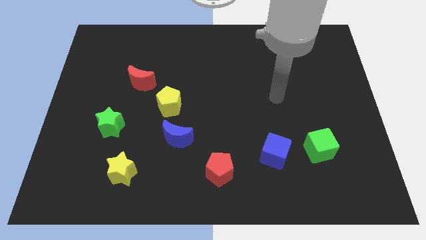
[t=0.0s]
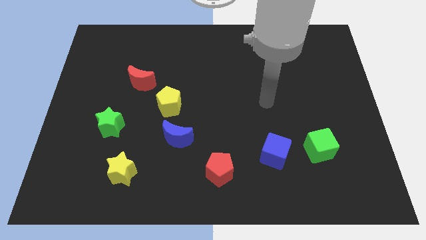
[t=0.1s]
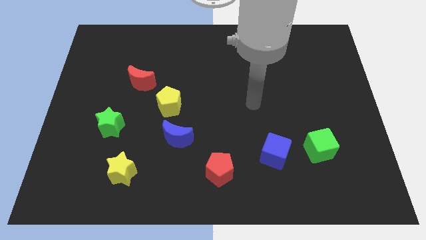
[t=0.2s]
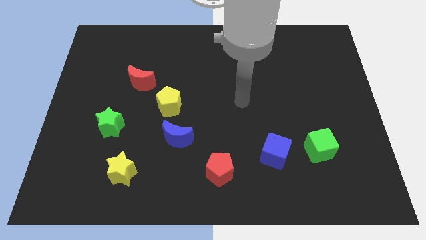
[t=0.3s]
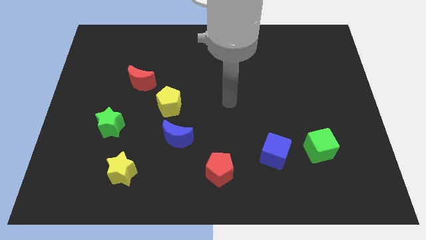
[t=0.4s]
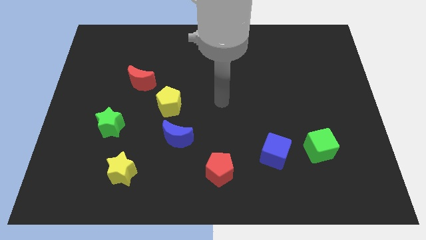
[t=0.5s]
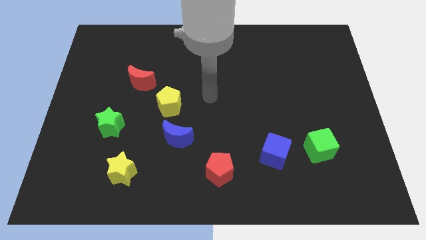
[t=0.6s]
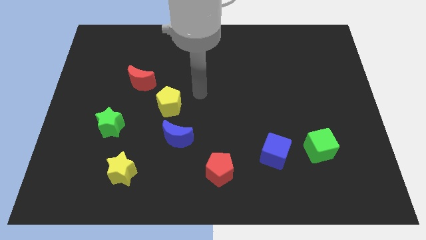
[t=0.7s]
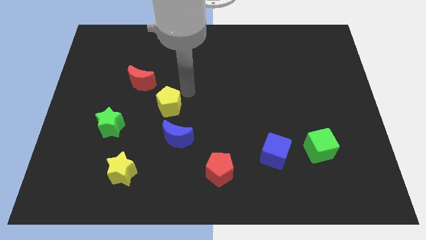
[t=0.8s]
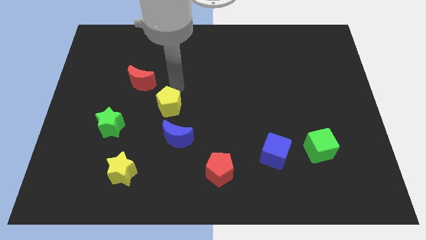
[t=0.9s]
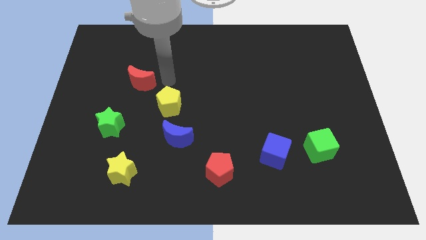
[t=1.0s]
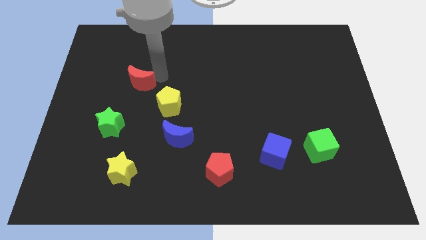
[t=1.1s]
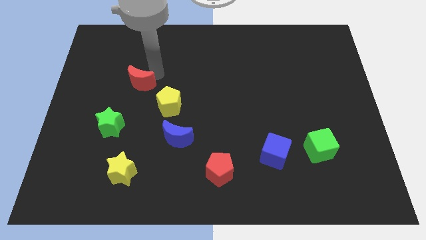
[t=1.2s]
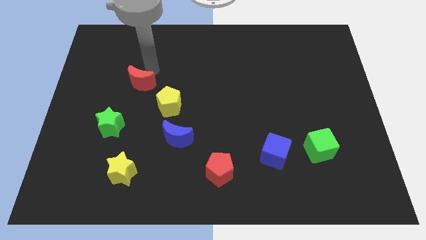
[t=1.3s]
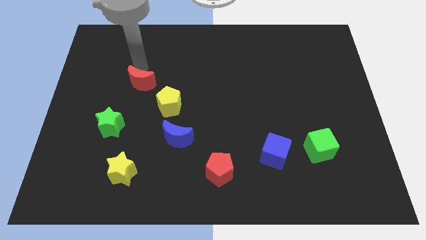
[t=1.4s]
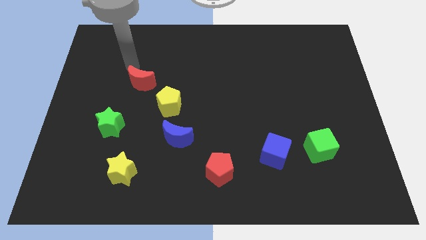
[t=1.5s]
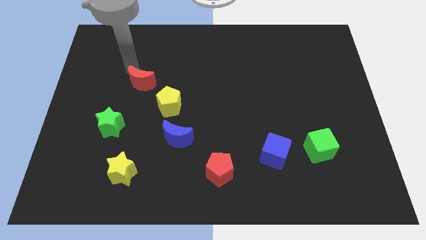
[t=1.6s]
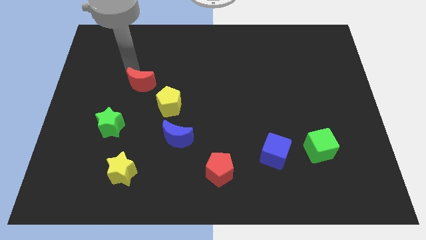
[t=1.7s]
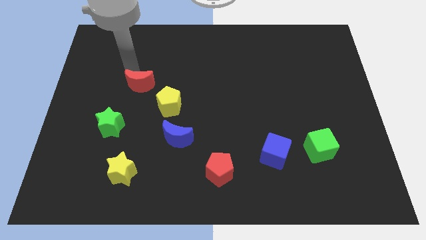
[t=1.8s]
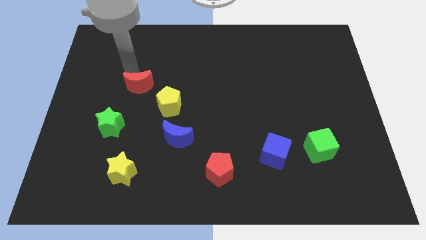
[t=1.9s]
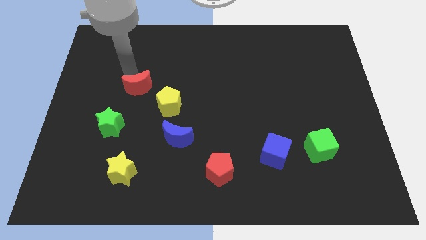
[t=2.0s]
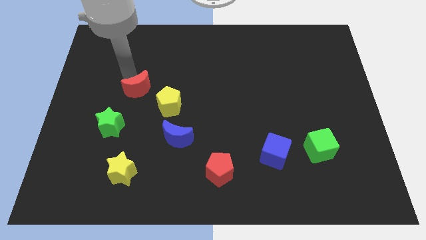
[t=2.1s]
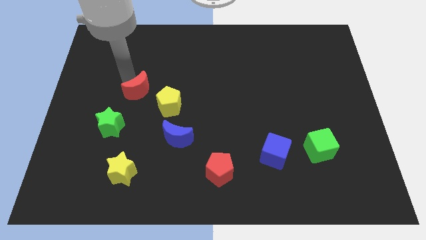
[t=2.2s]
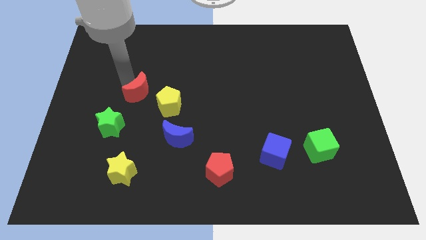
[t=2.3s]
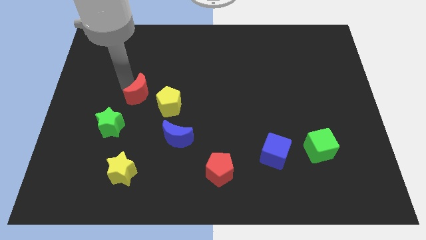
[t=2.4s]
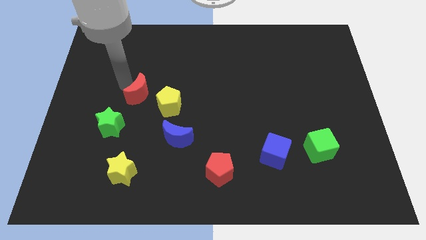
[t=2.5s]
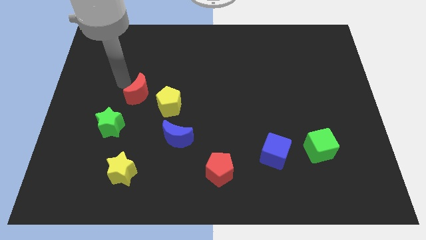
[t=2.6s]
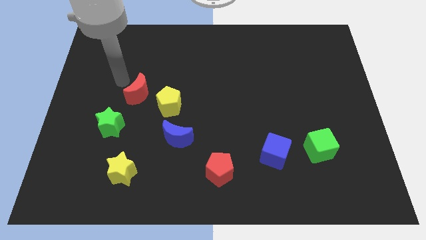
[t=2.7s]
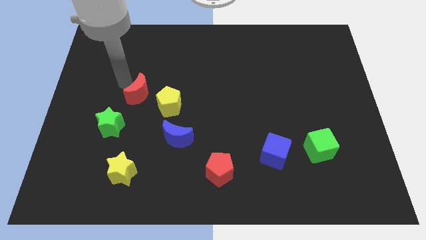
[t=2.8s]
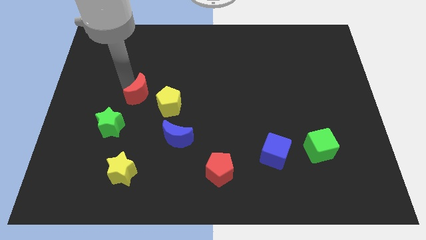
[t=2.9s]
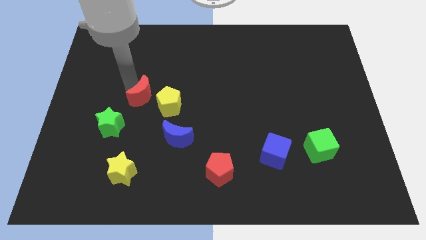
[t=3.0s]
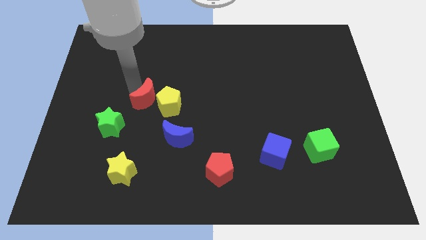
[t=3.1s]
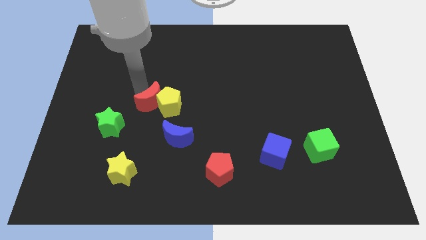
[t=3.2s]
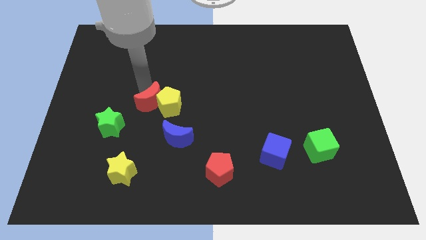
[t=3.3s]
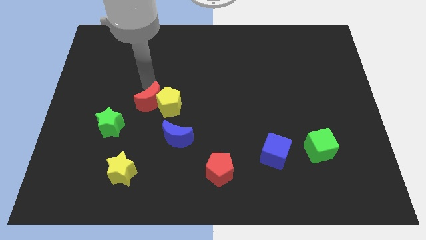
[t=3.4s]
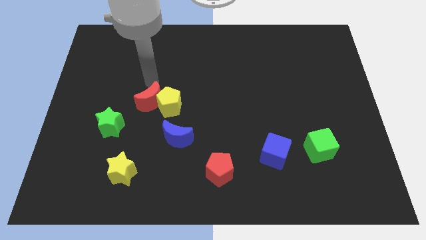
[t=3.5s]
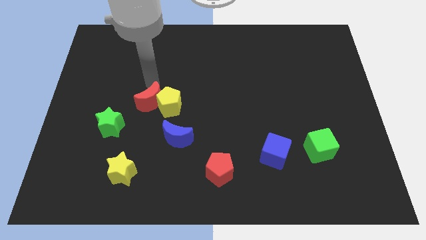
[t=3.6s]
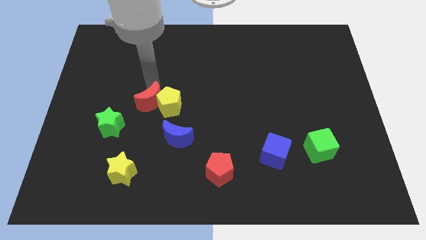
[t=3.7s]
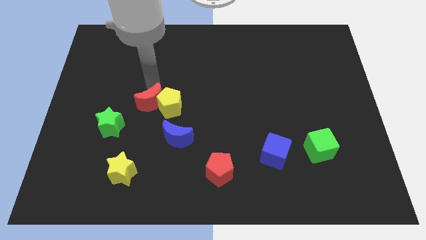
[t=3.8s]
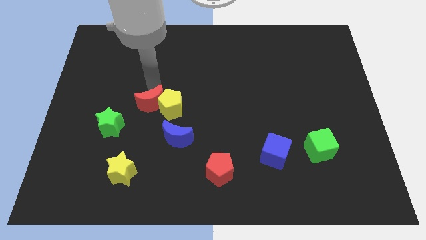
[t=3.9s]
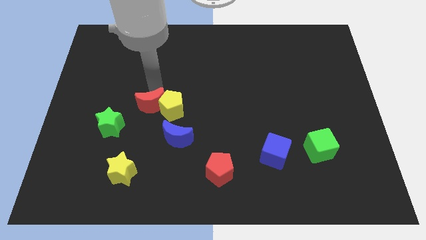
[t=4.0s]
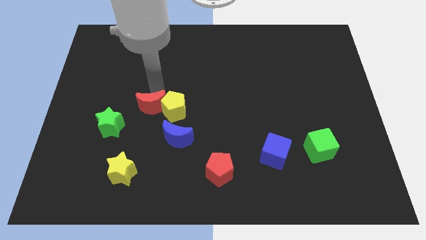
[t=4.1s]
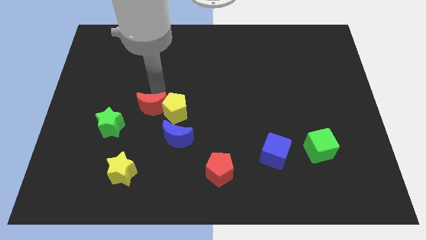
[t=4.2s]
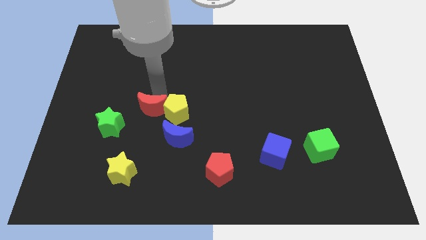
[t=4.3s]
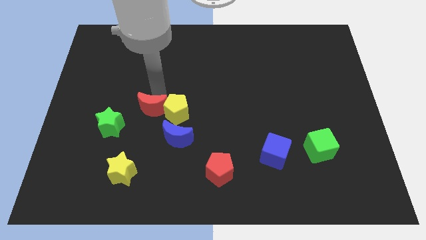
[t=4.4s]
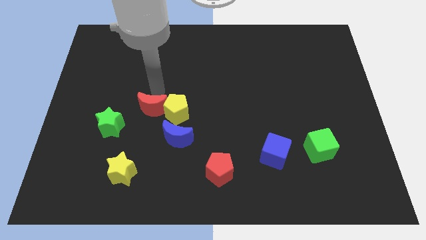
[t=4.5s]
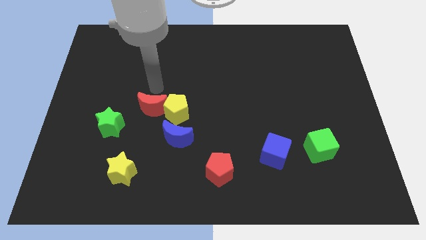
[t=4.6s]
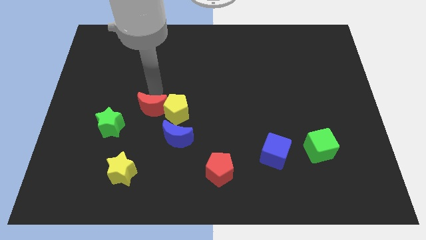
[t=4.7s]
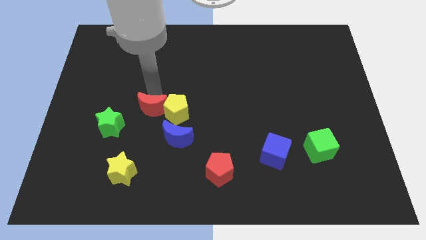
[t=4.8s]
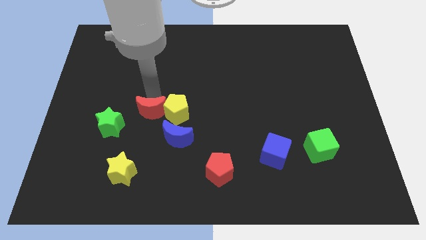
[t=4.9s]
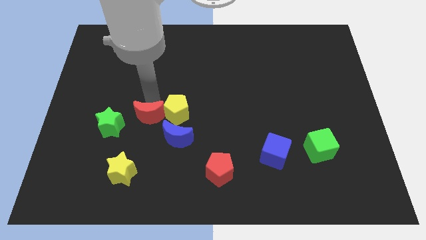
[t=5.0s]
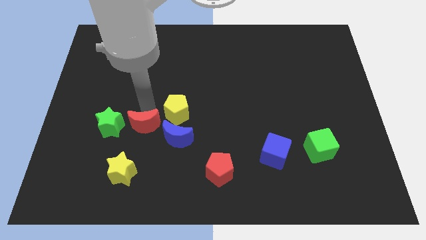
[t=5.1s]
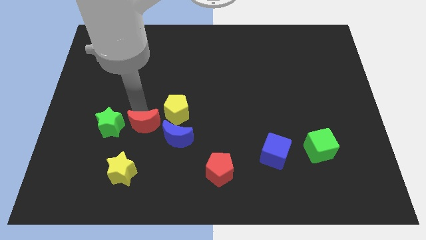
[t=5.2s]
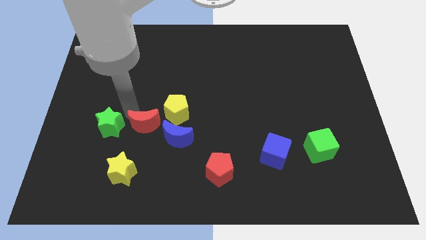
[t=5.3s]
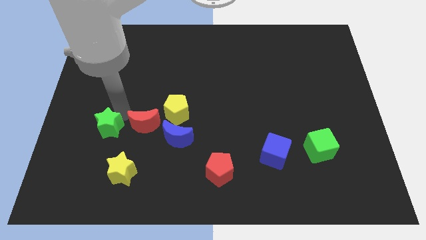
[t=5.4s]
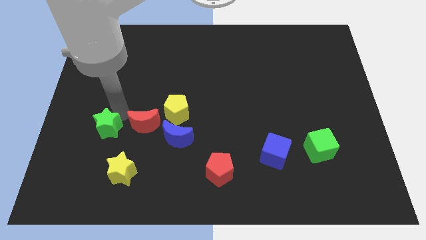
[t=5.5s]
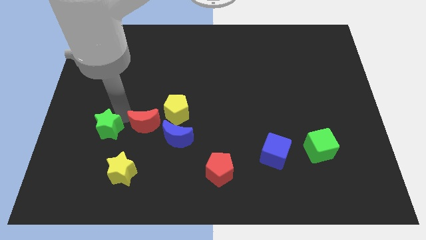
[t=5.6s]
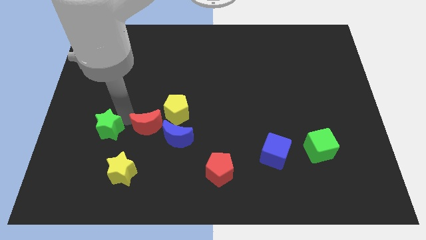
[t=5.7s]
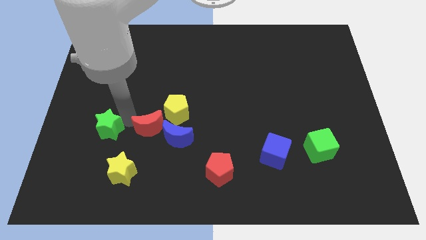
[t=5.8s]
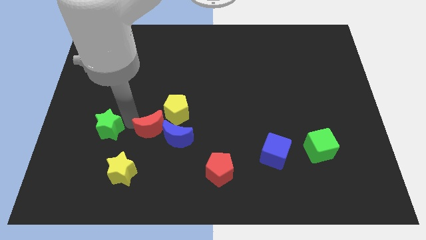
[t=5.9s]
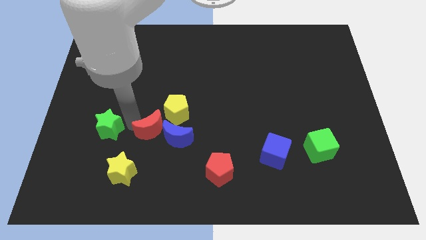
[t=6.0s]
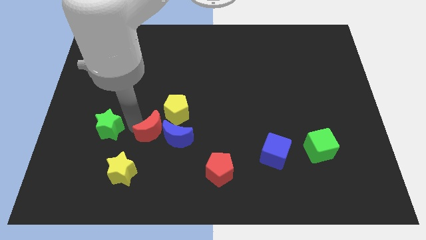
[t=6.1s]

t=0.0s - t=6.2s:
put the red moon to the blue moon

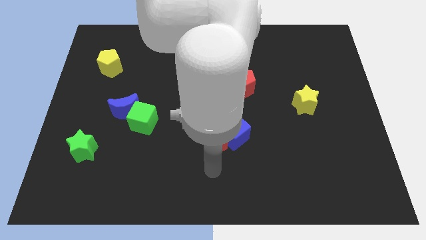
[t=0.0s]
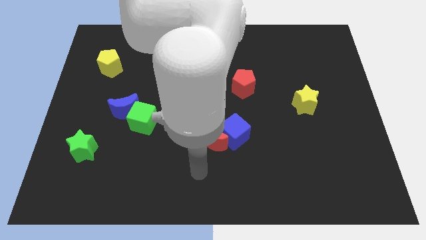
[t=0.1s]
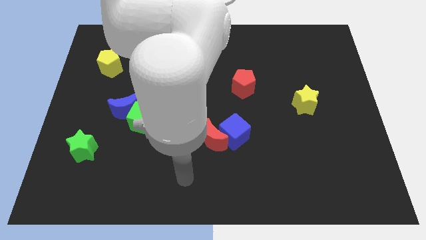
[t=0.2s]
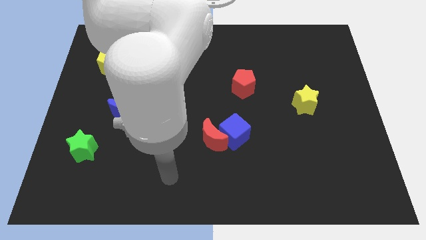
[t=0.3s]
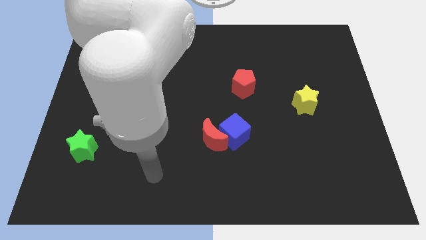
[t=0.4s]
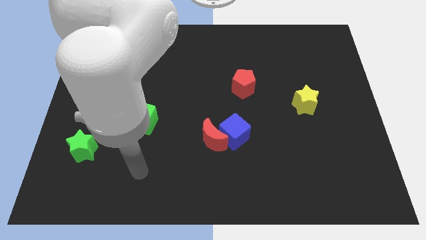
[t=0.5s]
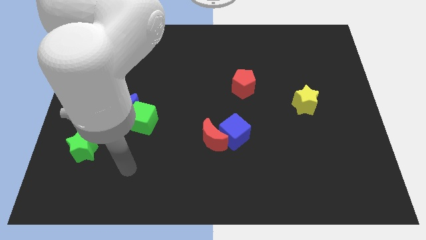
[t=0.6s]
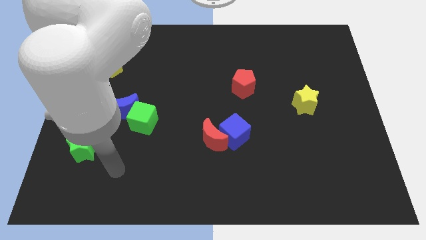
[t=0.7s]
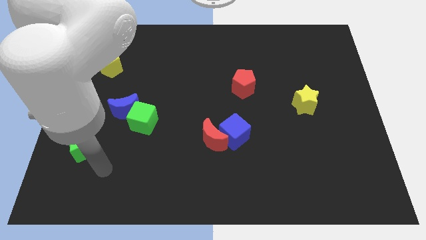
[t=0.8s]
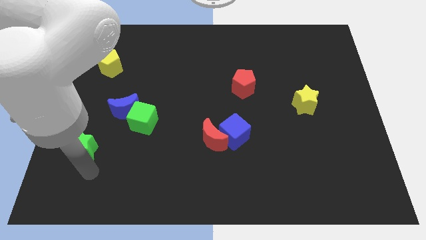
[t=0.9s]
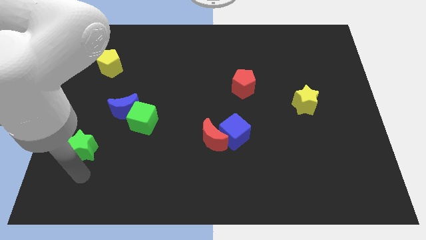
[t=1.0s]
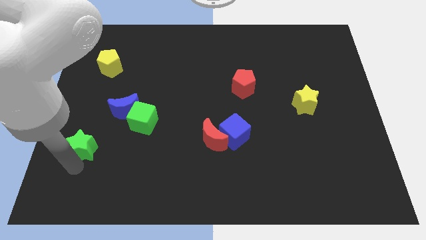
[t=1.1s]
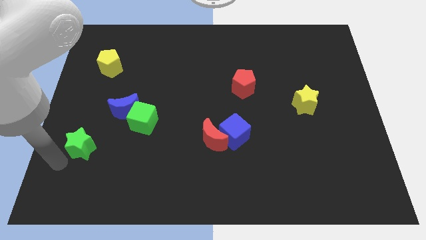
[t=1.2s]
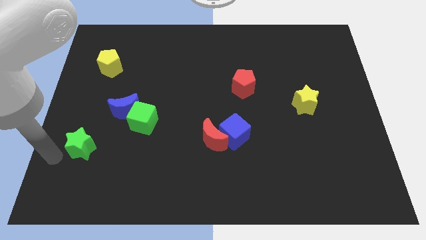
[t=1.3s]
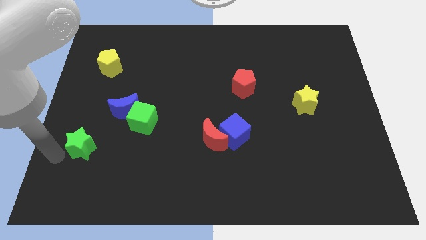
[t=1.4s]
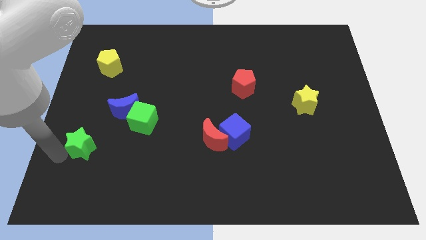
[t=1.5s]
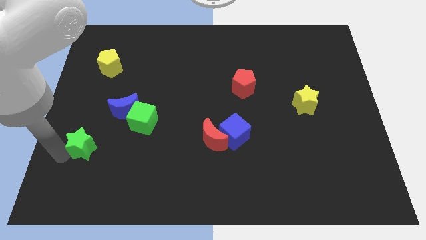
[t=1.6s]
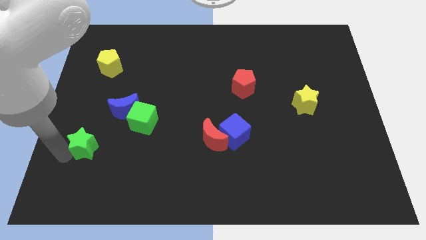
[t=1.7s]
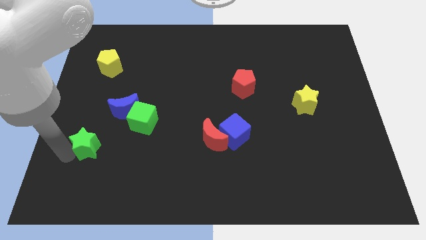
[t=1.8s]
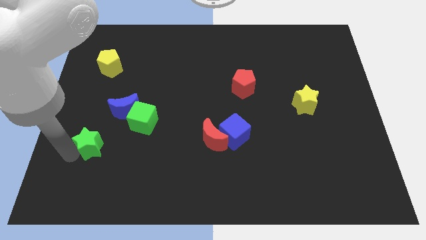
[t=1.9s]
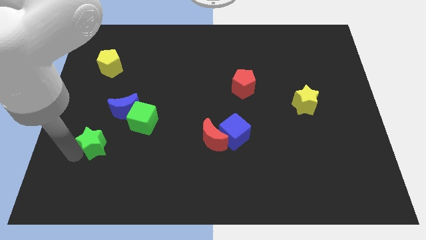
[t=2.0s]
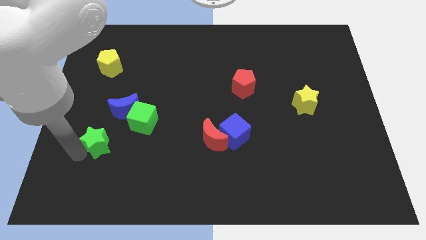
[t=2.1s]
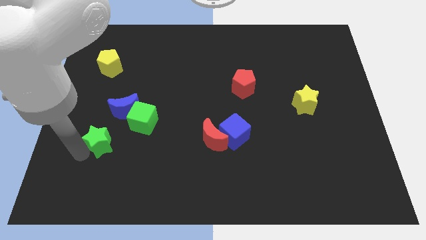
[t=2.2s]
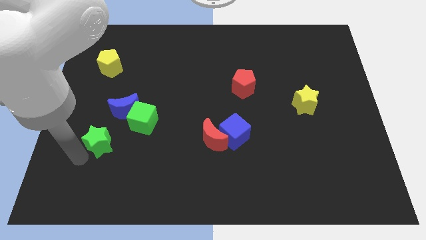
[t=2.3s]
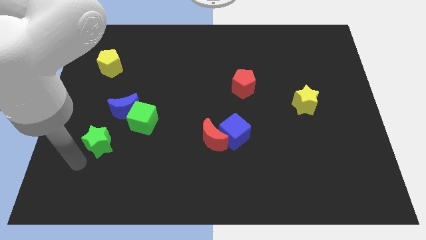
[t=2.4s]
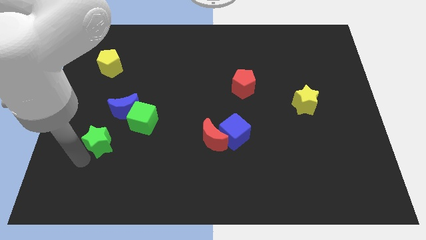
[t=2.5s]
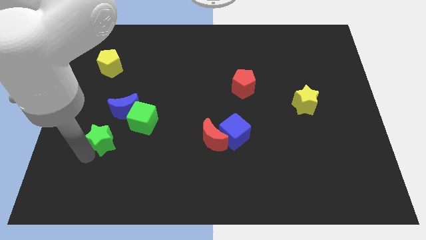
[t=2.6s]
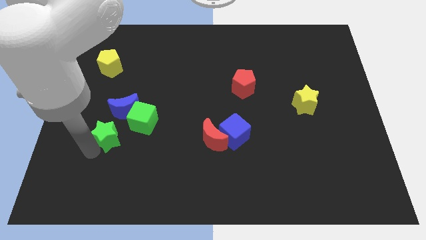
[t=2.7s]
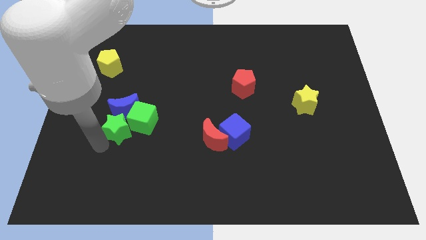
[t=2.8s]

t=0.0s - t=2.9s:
move the green star towards the blue moon
